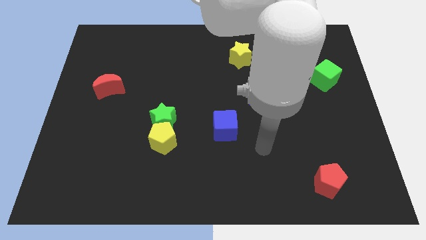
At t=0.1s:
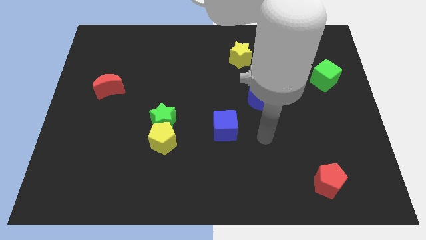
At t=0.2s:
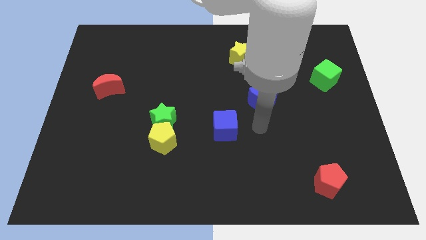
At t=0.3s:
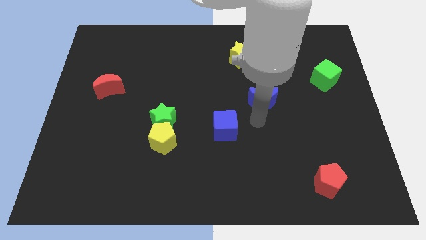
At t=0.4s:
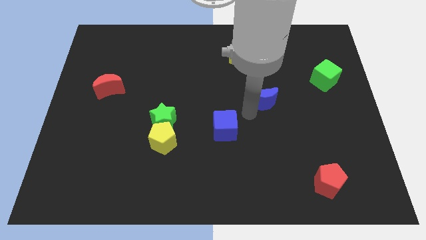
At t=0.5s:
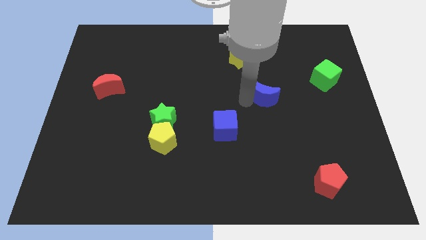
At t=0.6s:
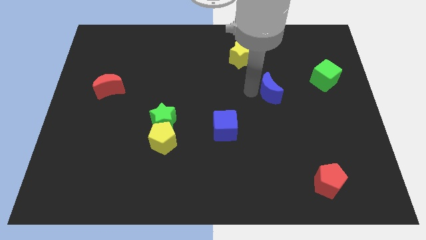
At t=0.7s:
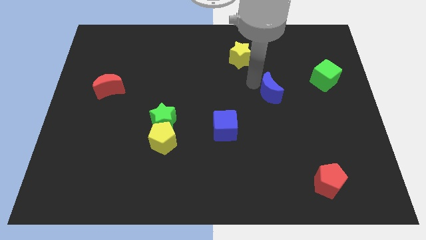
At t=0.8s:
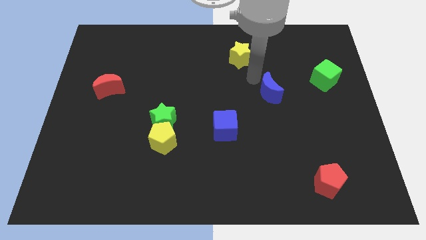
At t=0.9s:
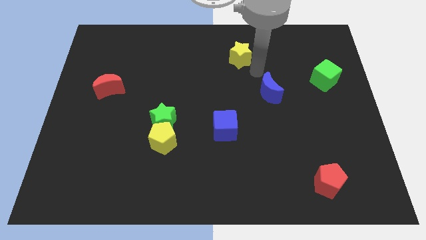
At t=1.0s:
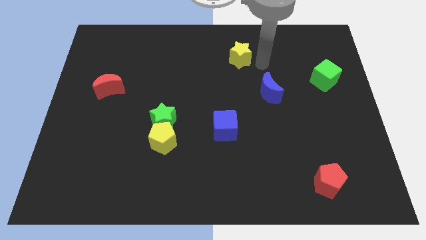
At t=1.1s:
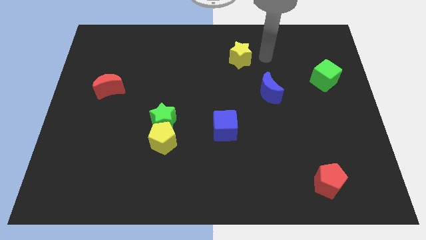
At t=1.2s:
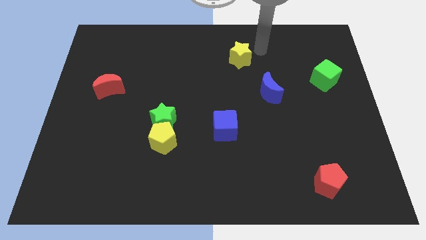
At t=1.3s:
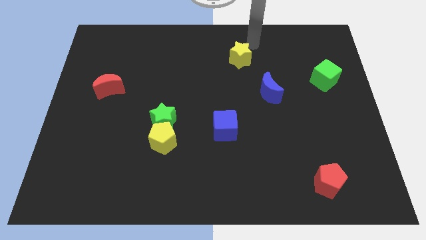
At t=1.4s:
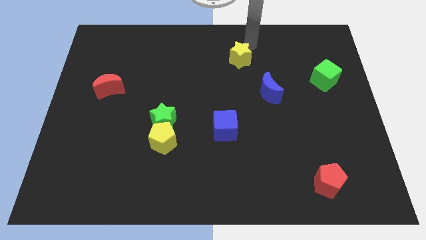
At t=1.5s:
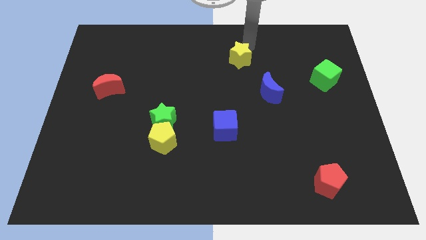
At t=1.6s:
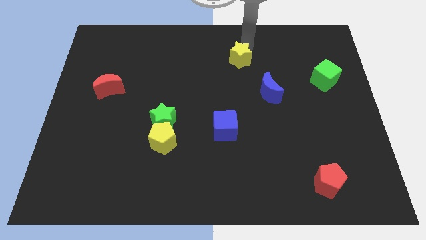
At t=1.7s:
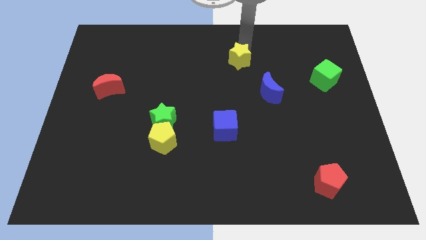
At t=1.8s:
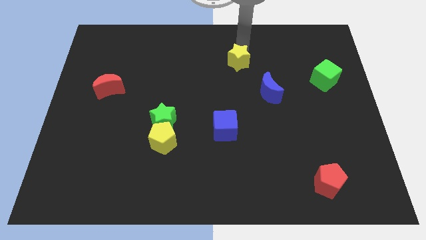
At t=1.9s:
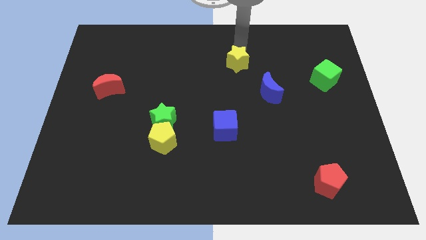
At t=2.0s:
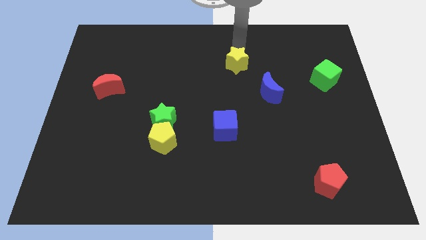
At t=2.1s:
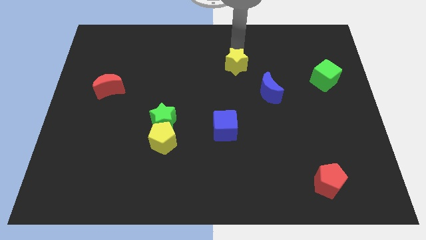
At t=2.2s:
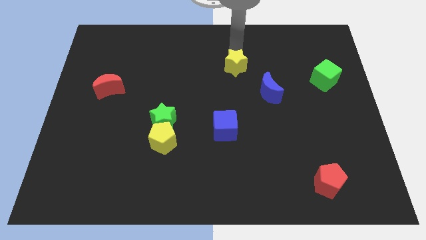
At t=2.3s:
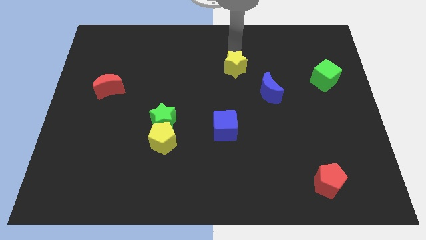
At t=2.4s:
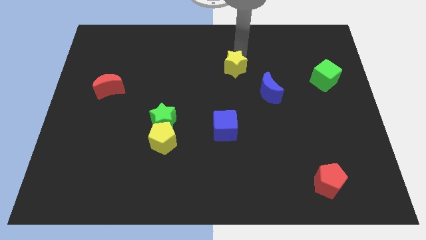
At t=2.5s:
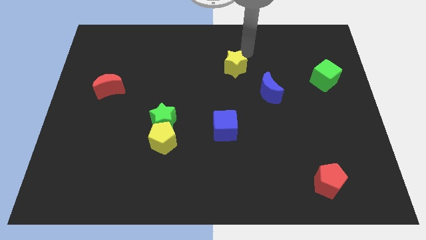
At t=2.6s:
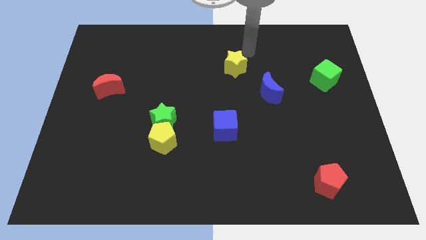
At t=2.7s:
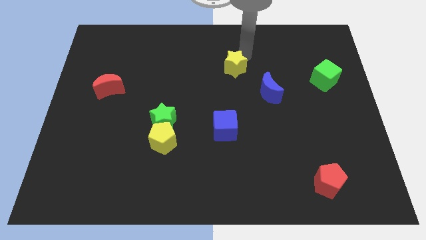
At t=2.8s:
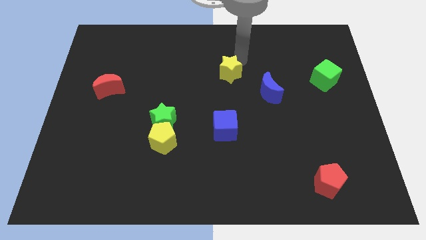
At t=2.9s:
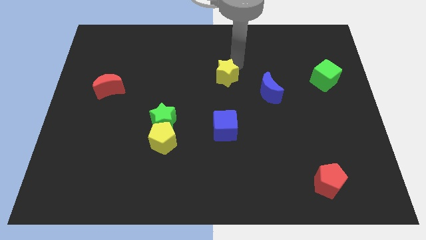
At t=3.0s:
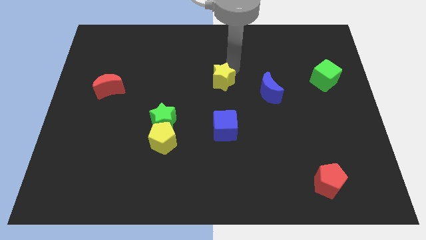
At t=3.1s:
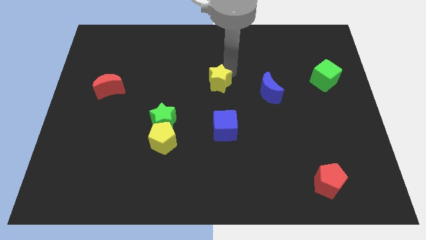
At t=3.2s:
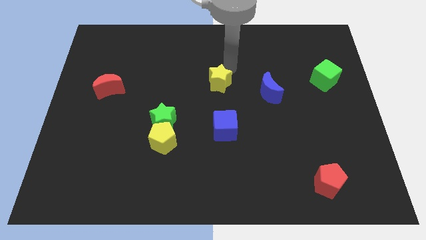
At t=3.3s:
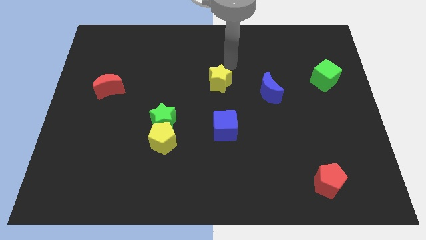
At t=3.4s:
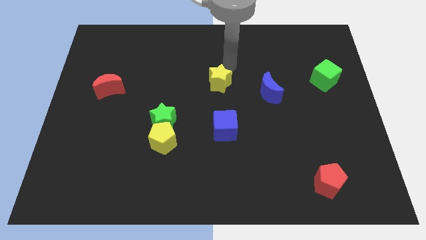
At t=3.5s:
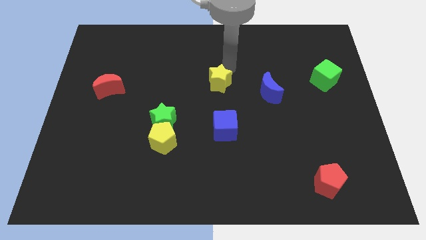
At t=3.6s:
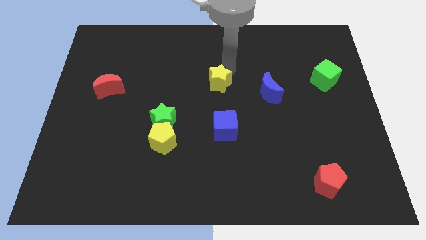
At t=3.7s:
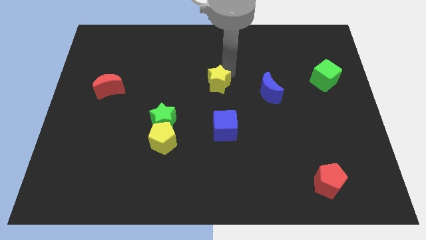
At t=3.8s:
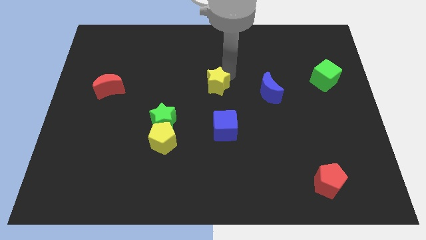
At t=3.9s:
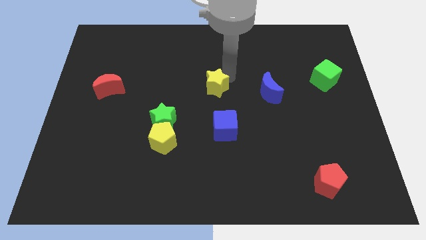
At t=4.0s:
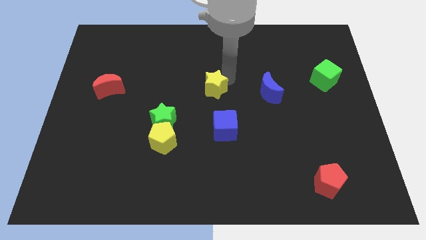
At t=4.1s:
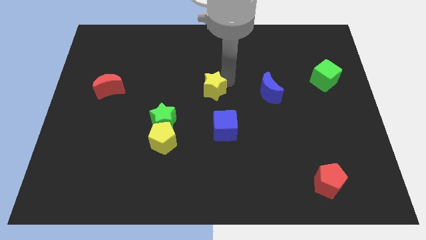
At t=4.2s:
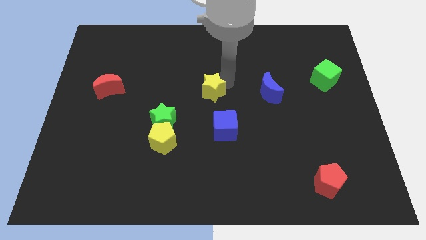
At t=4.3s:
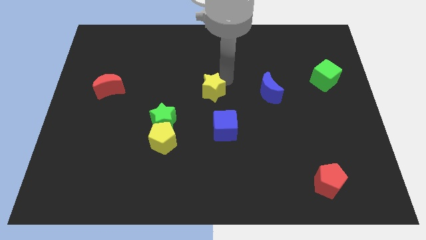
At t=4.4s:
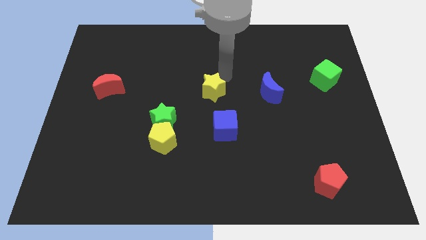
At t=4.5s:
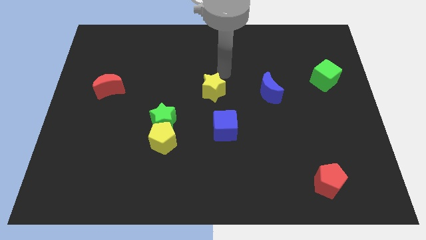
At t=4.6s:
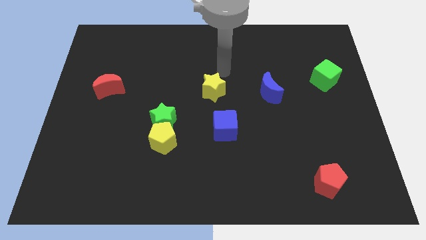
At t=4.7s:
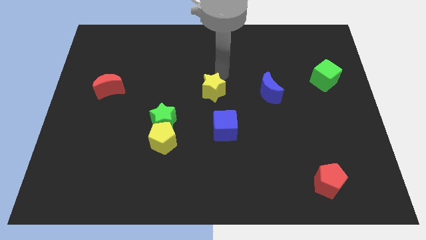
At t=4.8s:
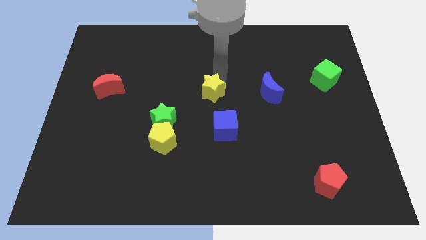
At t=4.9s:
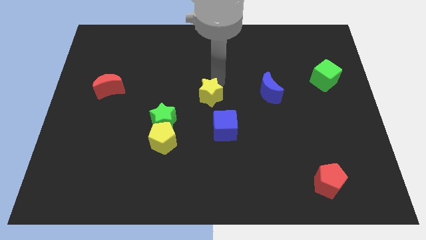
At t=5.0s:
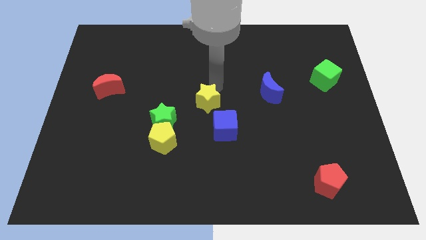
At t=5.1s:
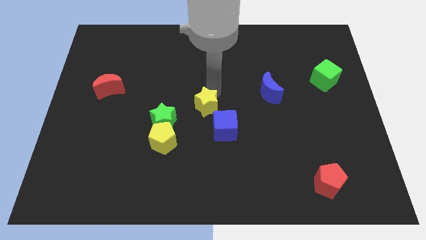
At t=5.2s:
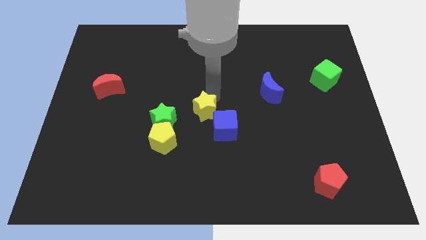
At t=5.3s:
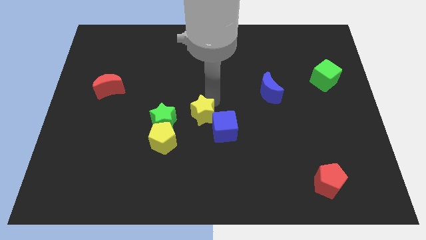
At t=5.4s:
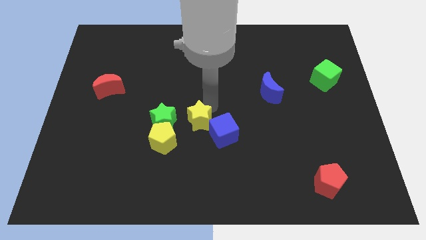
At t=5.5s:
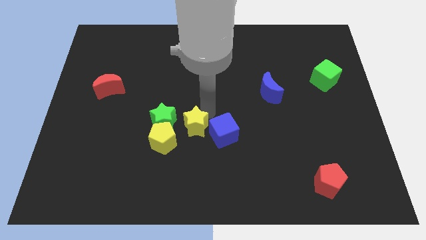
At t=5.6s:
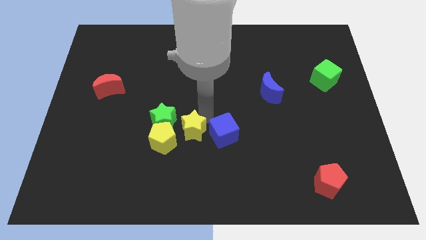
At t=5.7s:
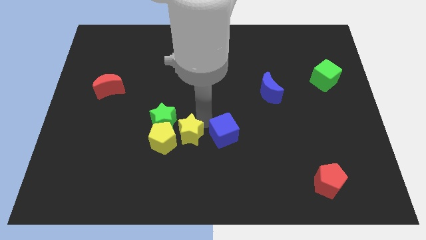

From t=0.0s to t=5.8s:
slide the yellow star close to the yellow pentagon

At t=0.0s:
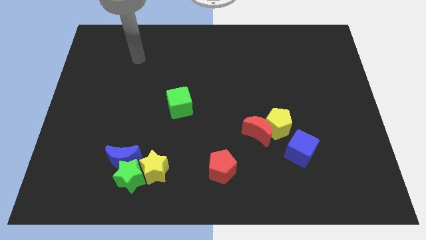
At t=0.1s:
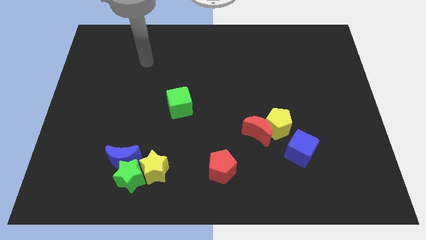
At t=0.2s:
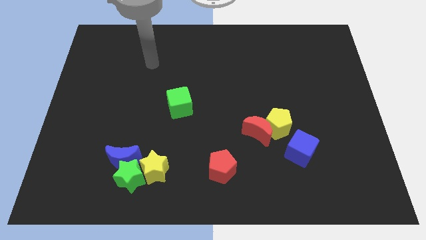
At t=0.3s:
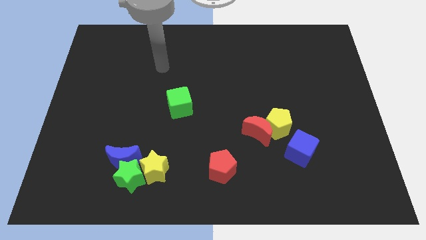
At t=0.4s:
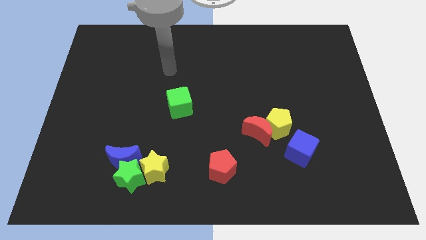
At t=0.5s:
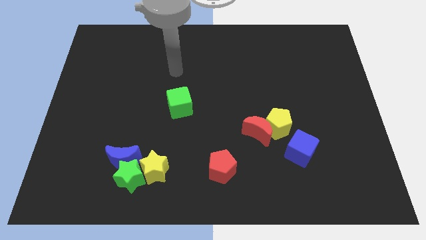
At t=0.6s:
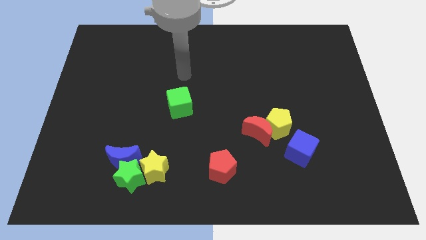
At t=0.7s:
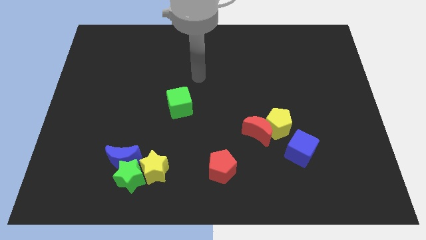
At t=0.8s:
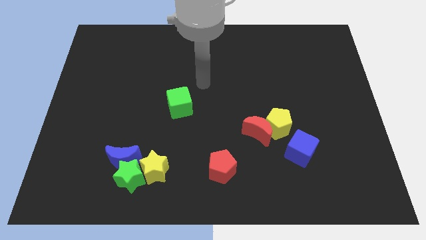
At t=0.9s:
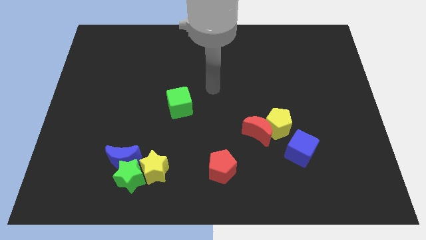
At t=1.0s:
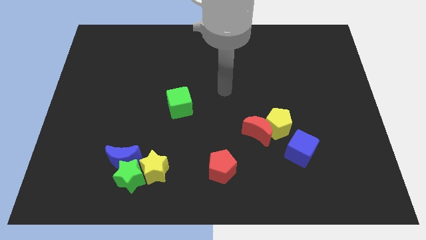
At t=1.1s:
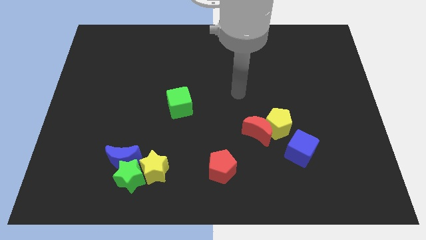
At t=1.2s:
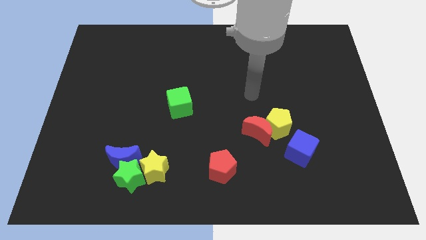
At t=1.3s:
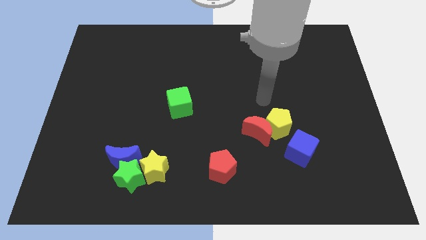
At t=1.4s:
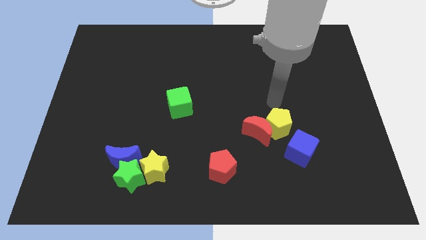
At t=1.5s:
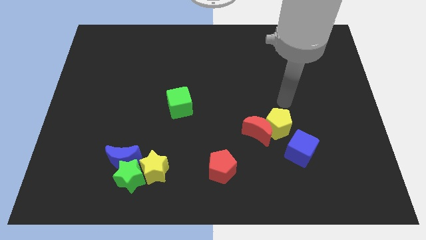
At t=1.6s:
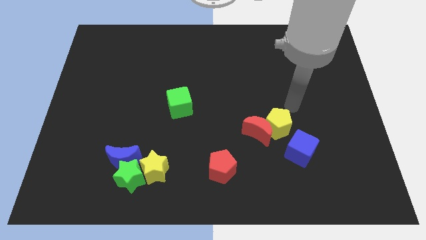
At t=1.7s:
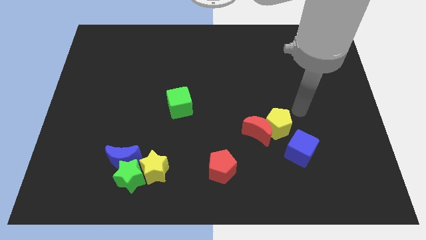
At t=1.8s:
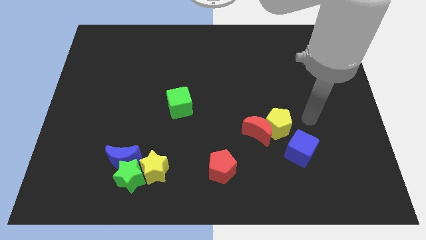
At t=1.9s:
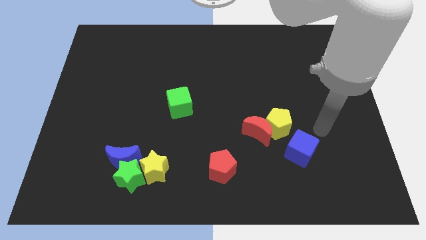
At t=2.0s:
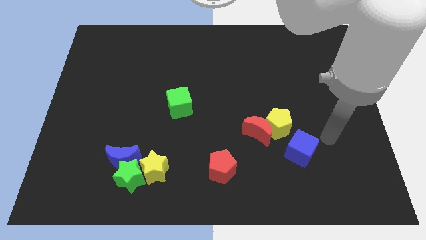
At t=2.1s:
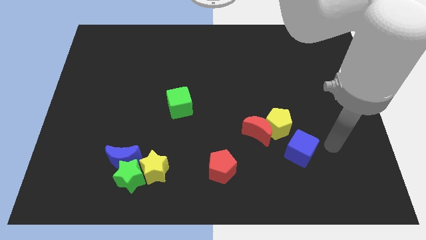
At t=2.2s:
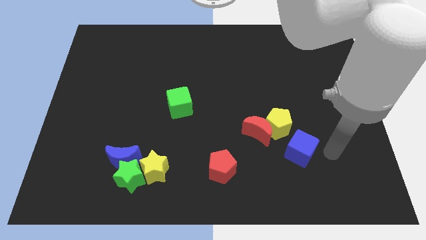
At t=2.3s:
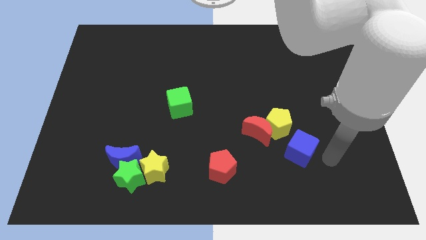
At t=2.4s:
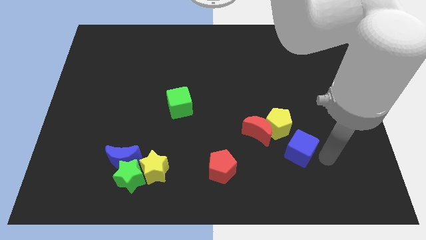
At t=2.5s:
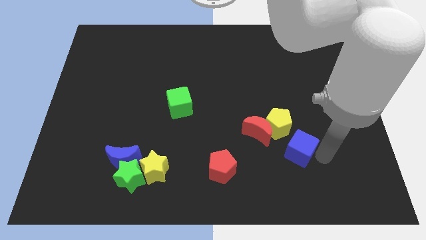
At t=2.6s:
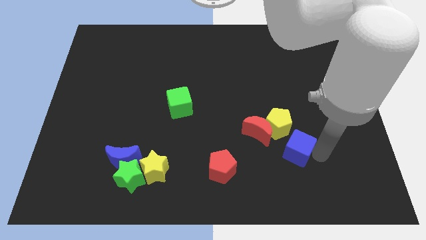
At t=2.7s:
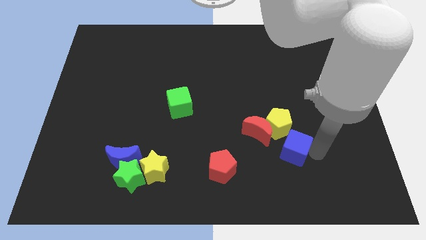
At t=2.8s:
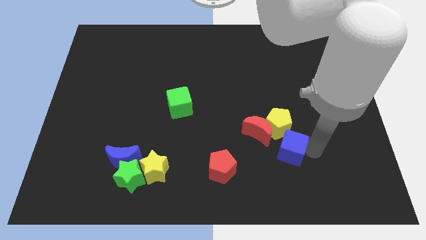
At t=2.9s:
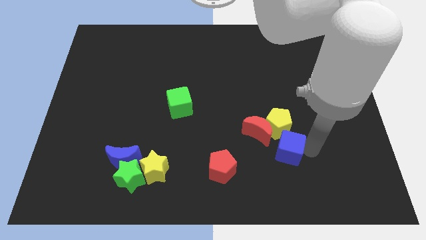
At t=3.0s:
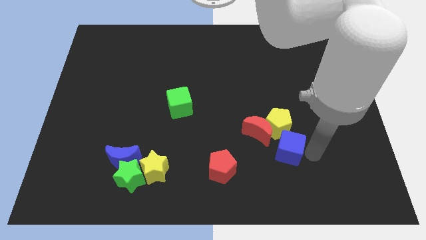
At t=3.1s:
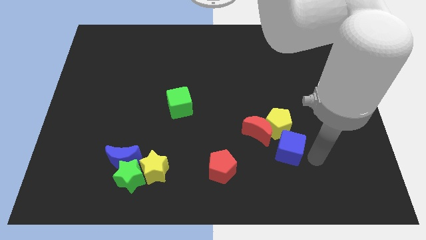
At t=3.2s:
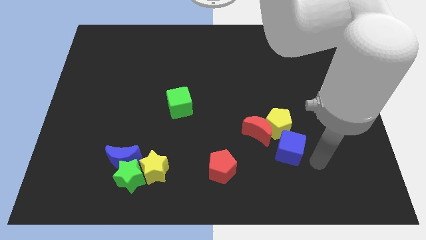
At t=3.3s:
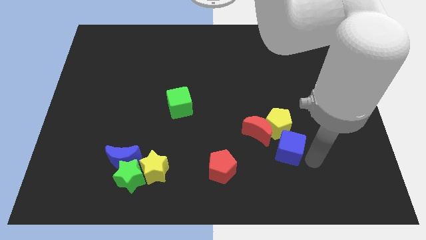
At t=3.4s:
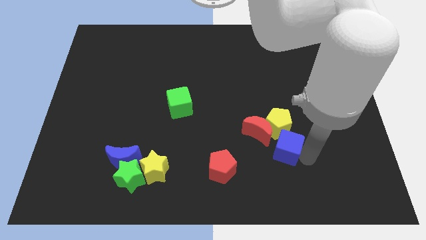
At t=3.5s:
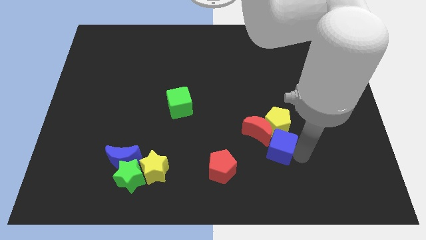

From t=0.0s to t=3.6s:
push the blue cube to the red moon
